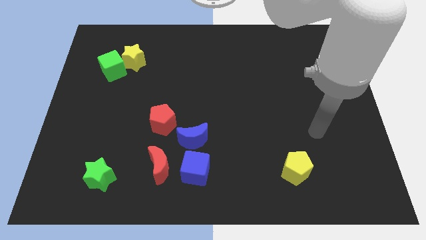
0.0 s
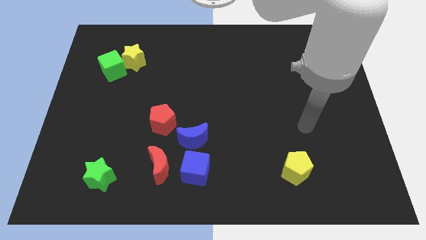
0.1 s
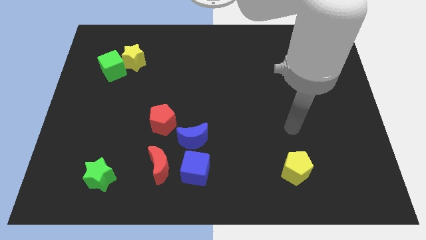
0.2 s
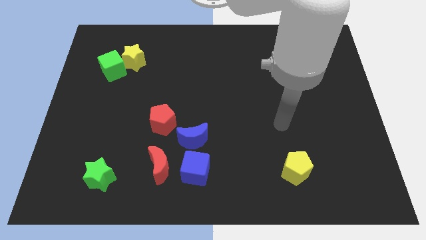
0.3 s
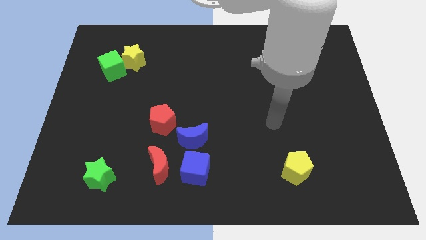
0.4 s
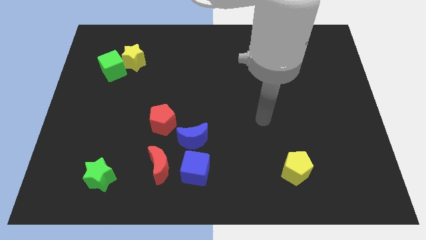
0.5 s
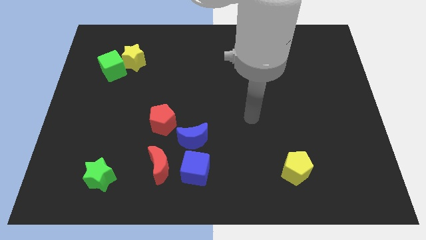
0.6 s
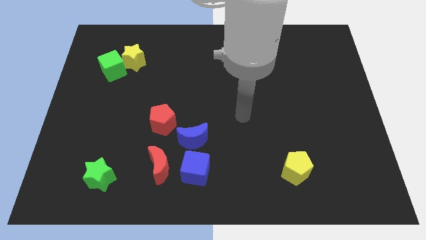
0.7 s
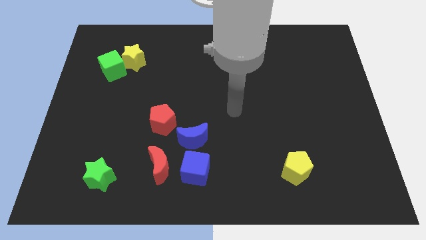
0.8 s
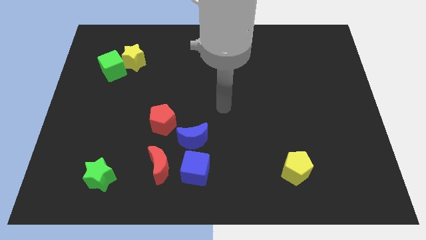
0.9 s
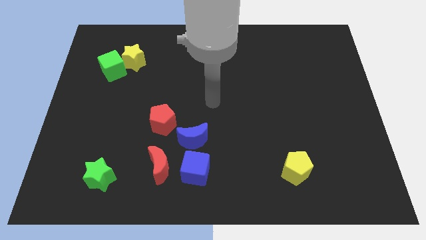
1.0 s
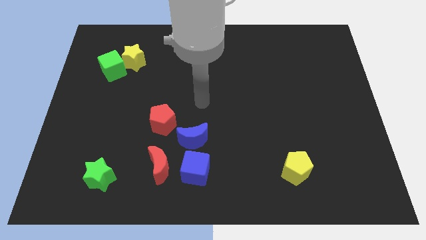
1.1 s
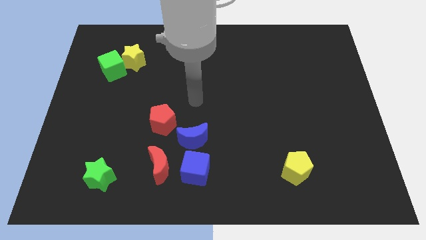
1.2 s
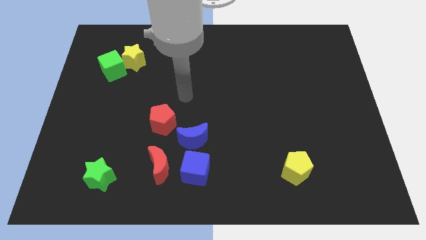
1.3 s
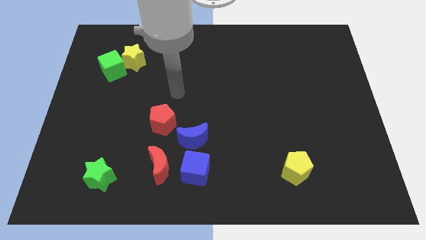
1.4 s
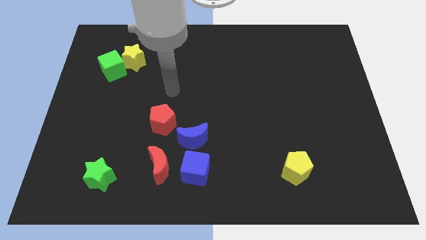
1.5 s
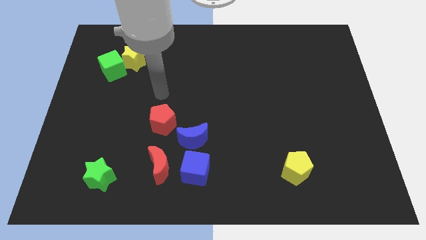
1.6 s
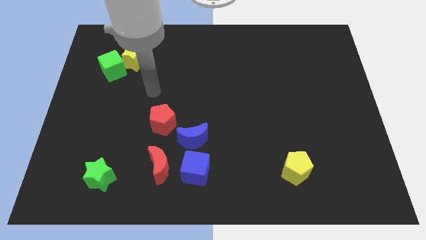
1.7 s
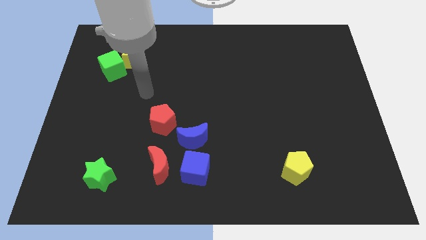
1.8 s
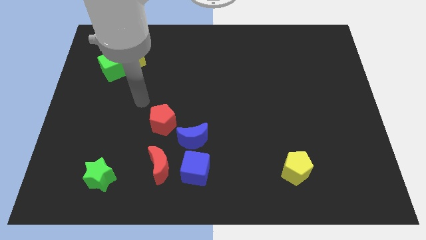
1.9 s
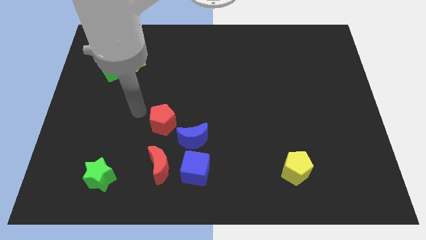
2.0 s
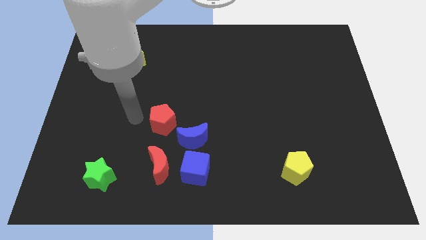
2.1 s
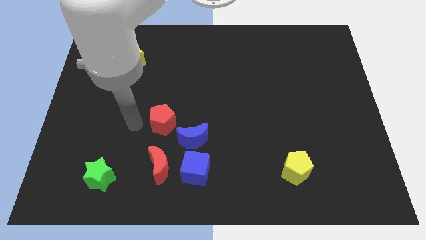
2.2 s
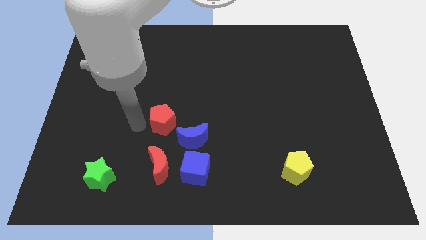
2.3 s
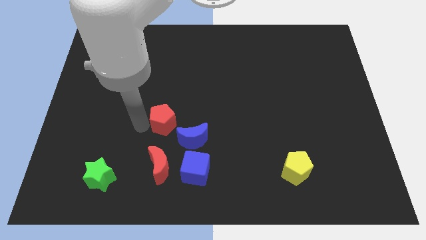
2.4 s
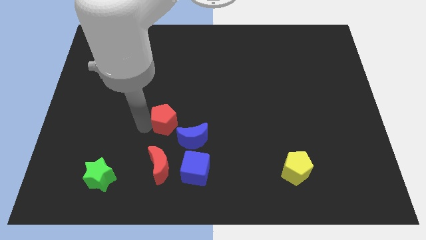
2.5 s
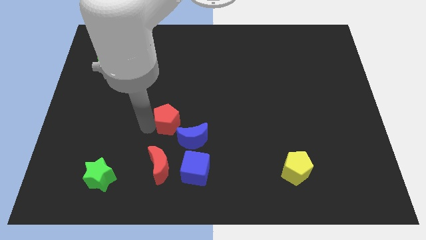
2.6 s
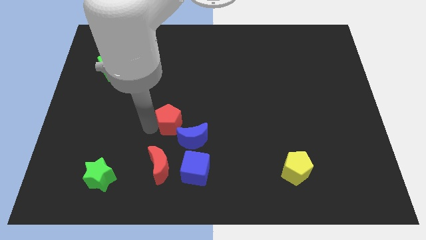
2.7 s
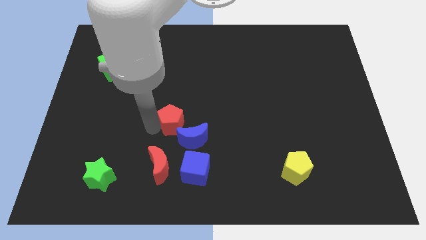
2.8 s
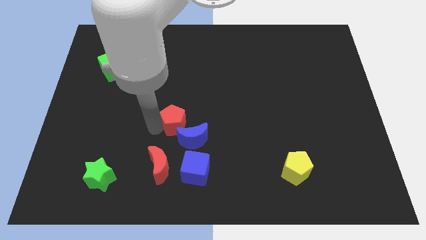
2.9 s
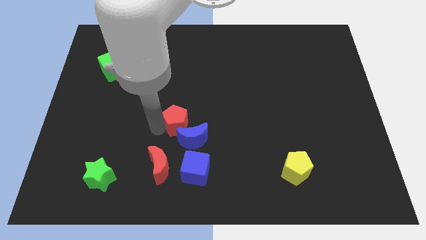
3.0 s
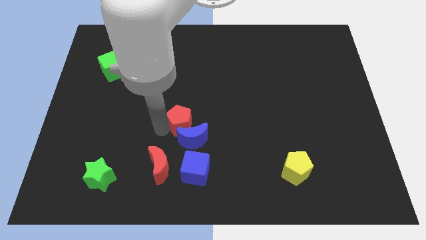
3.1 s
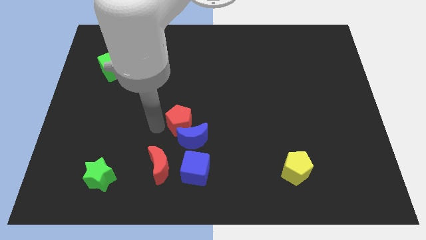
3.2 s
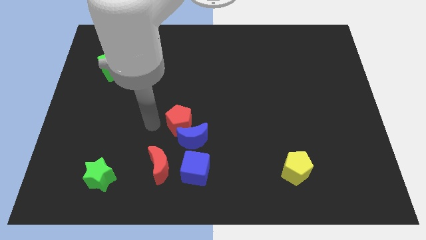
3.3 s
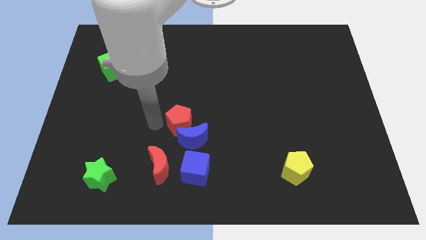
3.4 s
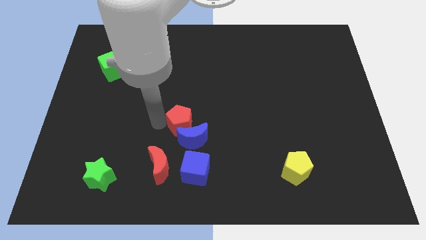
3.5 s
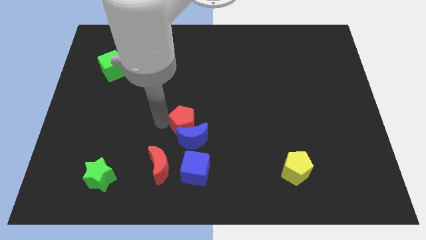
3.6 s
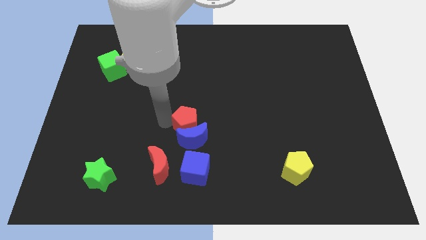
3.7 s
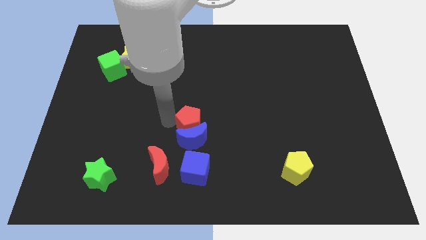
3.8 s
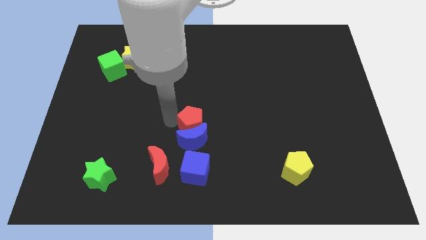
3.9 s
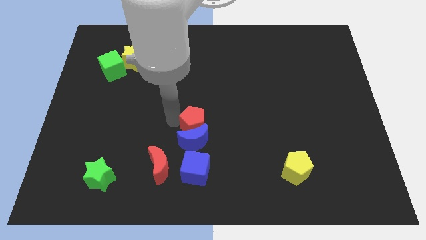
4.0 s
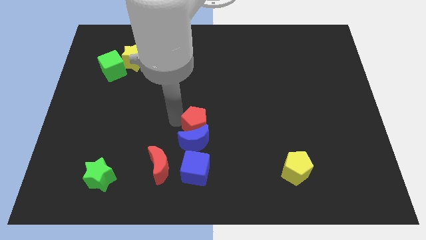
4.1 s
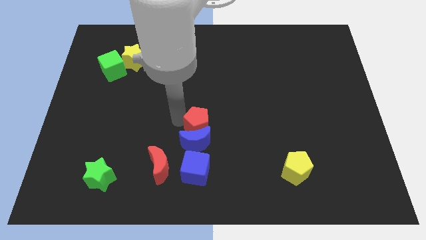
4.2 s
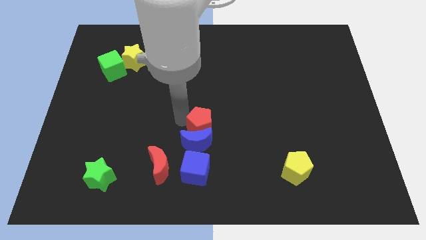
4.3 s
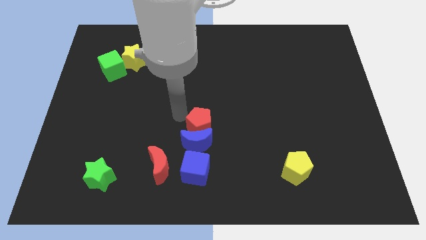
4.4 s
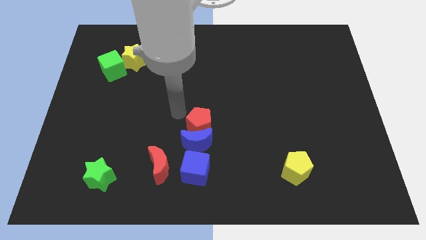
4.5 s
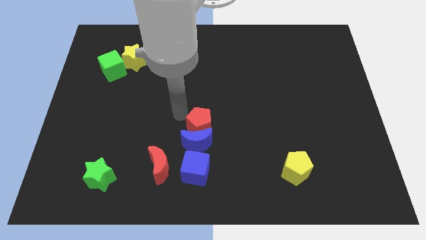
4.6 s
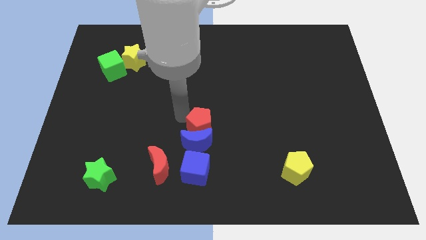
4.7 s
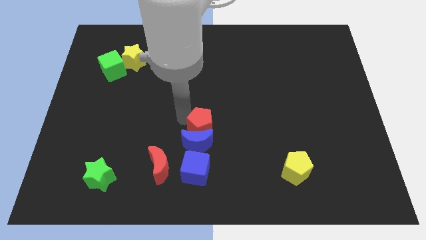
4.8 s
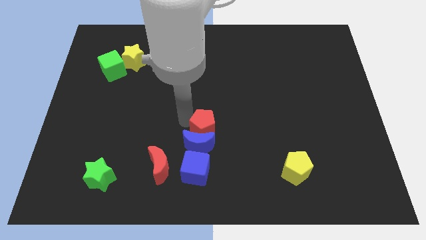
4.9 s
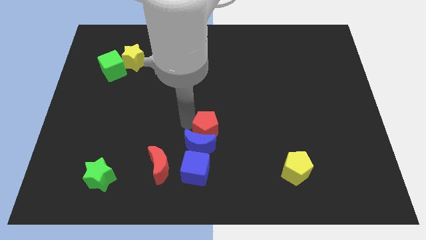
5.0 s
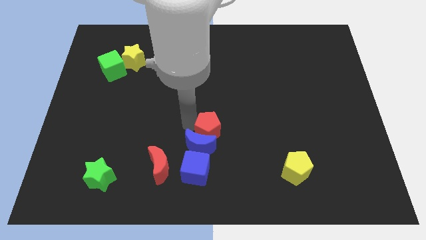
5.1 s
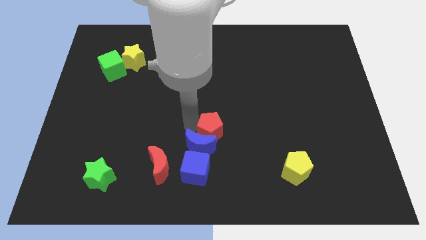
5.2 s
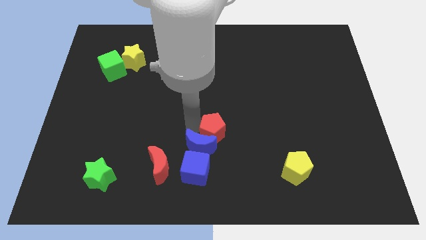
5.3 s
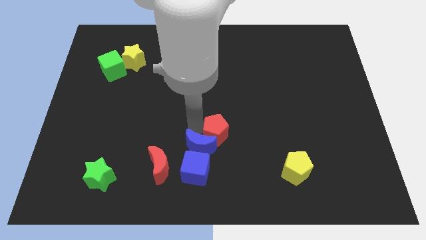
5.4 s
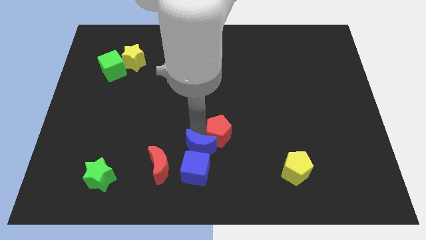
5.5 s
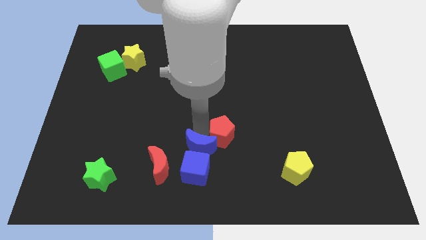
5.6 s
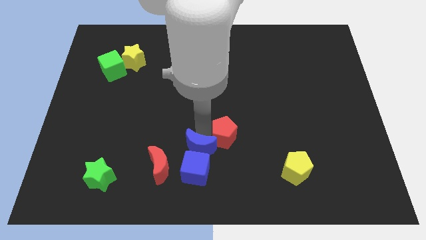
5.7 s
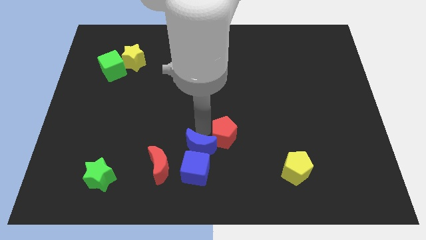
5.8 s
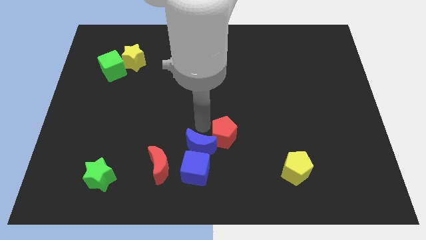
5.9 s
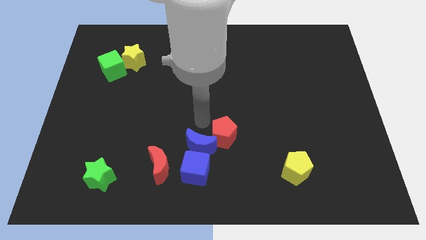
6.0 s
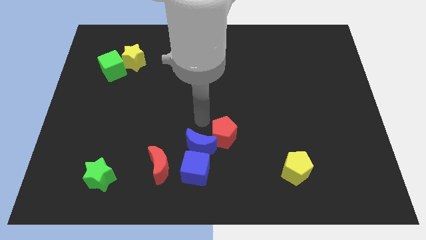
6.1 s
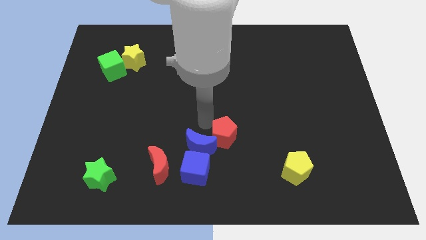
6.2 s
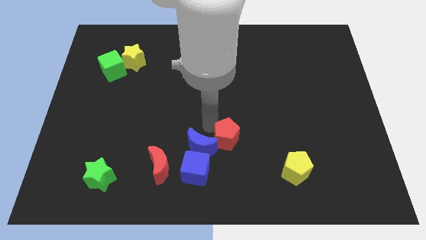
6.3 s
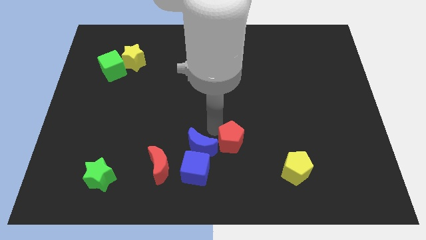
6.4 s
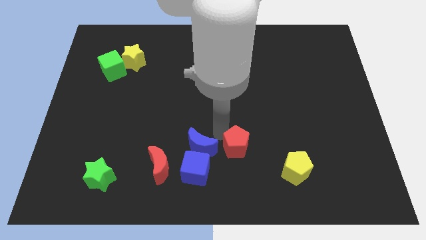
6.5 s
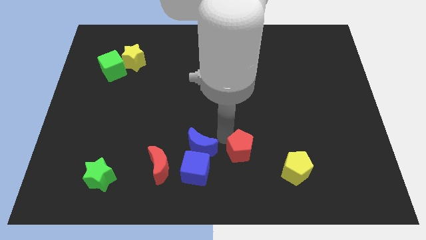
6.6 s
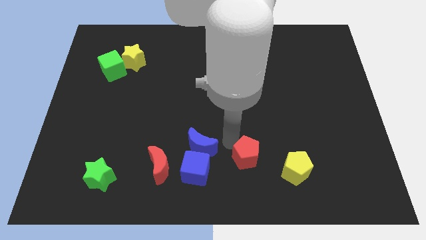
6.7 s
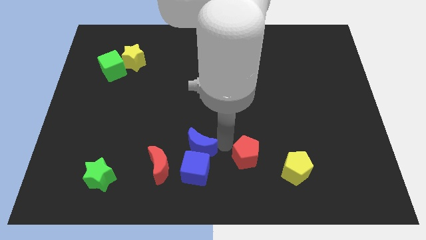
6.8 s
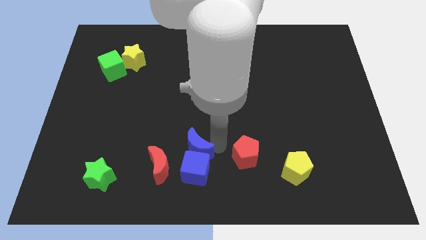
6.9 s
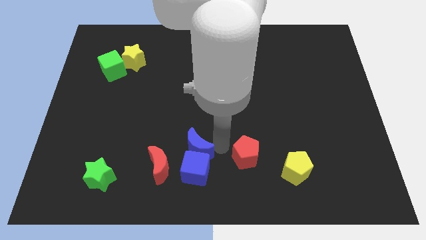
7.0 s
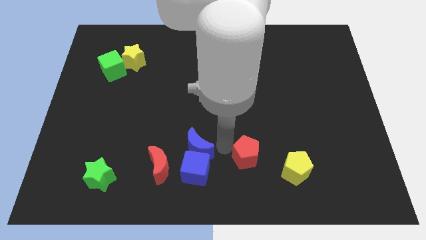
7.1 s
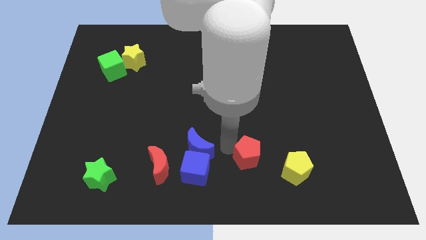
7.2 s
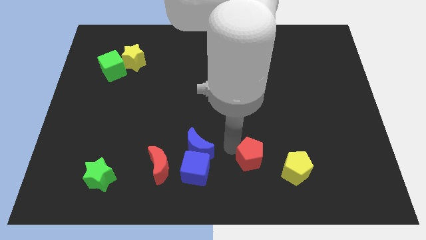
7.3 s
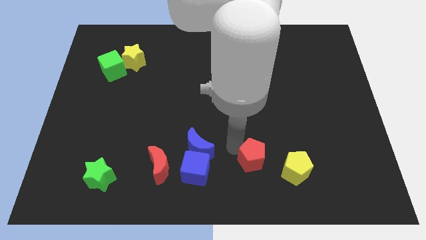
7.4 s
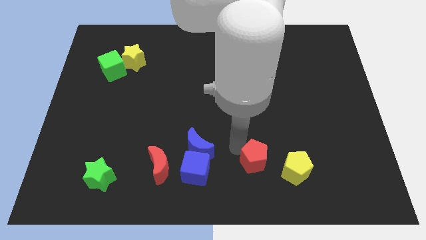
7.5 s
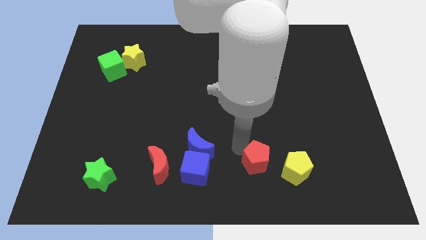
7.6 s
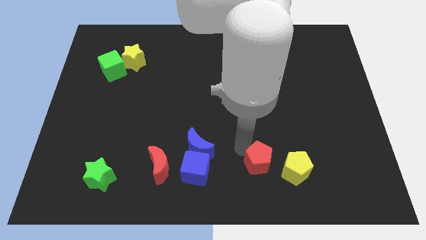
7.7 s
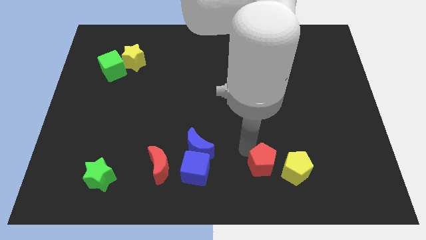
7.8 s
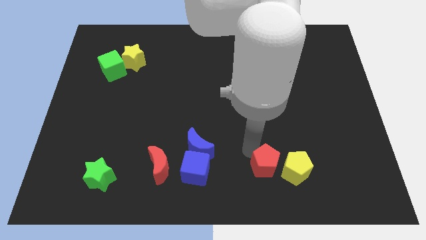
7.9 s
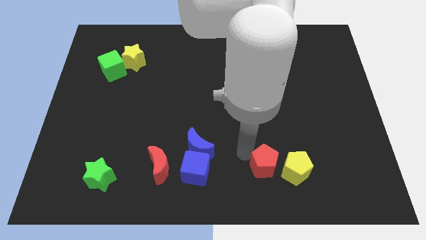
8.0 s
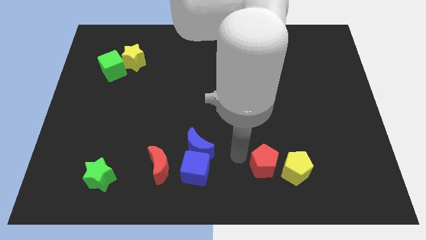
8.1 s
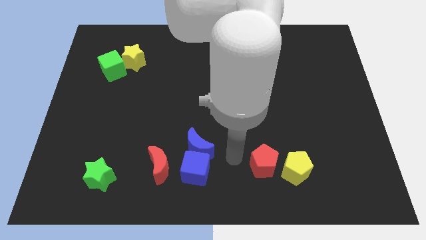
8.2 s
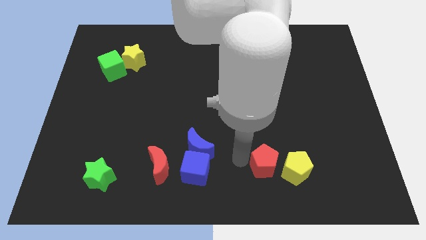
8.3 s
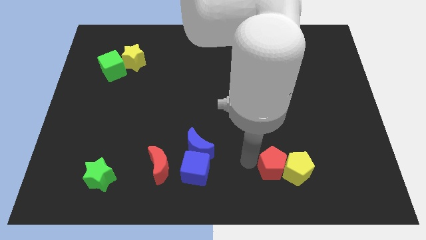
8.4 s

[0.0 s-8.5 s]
move the red pentagon towards the yellow pentagon
